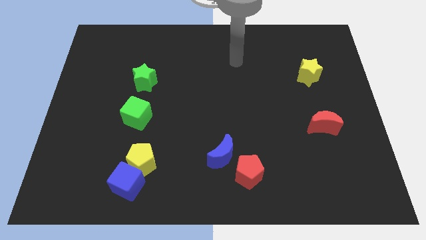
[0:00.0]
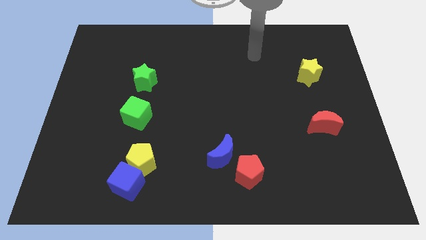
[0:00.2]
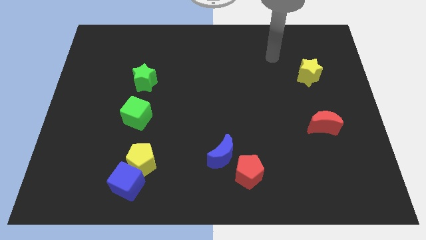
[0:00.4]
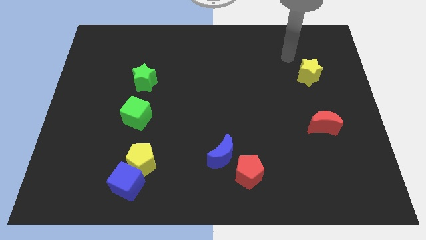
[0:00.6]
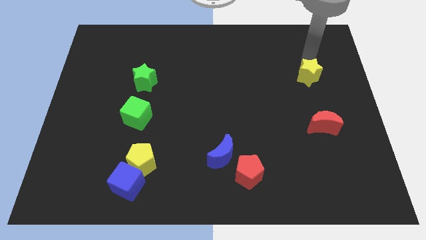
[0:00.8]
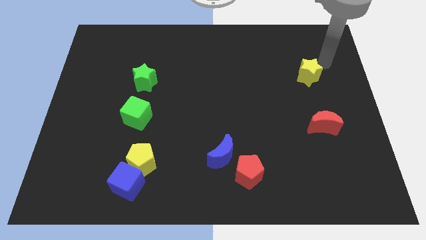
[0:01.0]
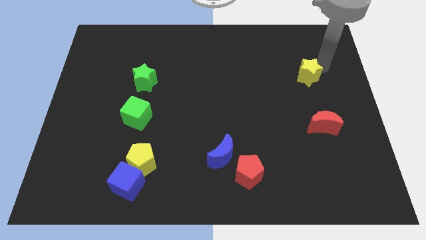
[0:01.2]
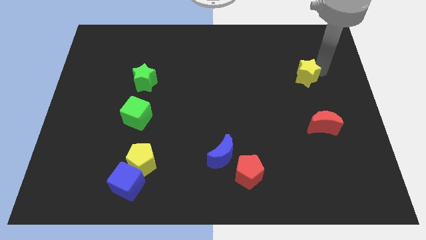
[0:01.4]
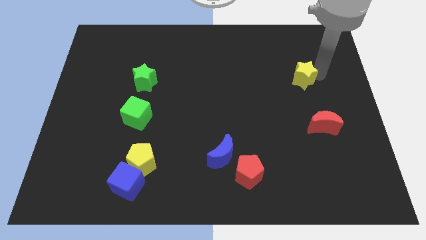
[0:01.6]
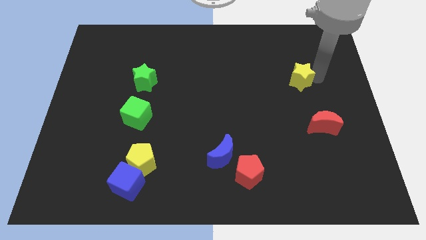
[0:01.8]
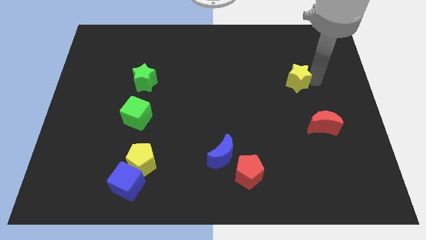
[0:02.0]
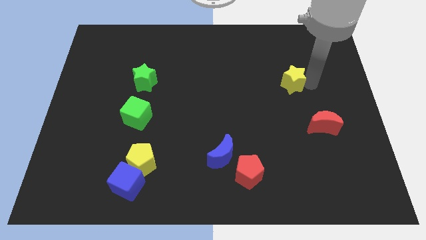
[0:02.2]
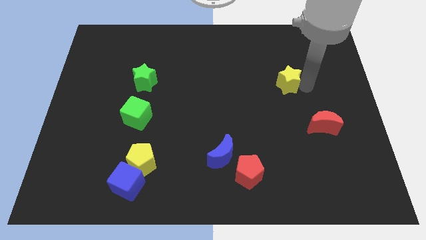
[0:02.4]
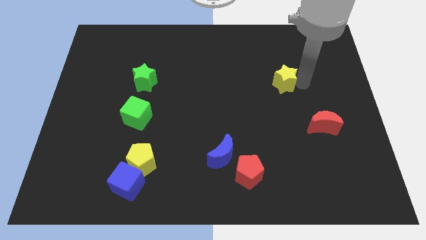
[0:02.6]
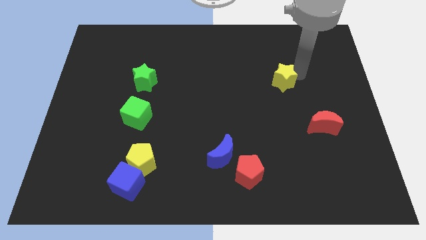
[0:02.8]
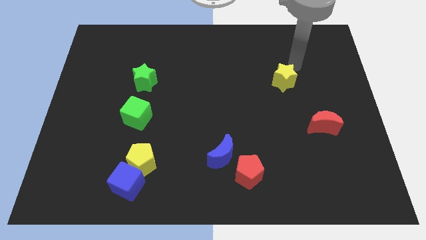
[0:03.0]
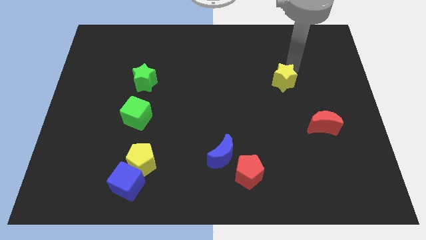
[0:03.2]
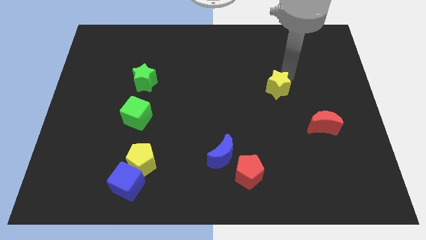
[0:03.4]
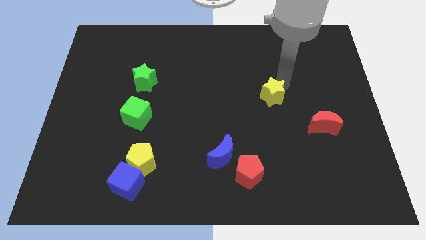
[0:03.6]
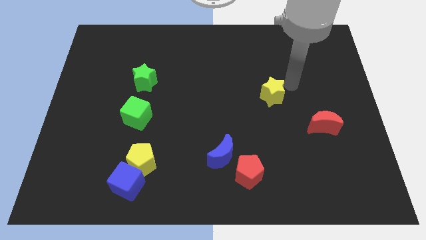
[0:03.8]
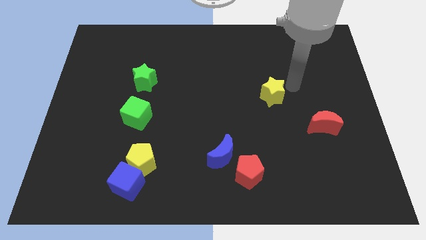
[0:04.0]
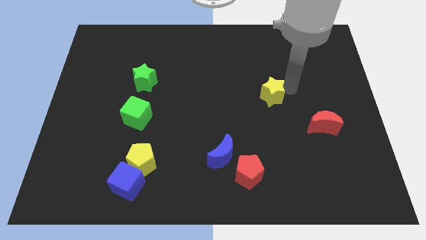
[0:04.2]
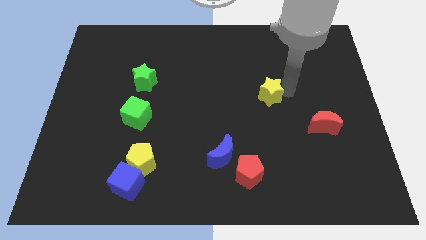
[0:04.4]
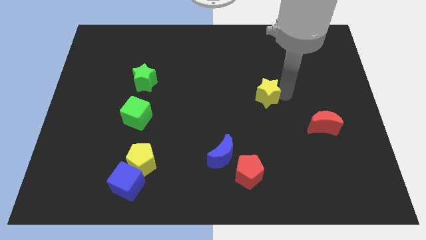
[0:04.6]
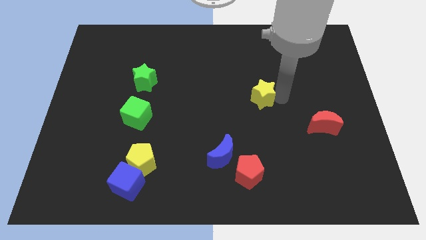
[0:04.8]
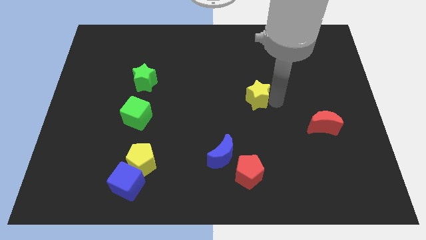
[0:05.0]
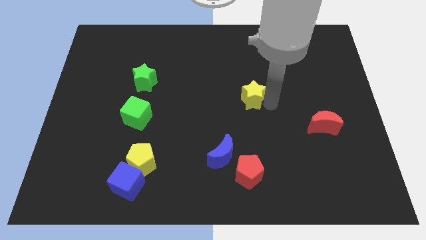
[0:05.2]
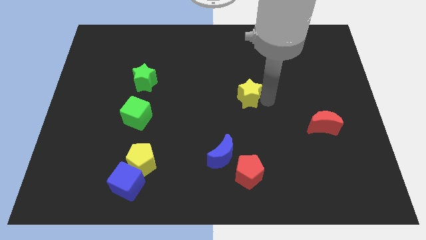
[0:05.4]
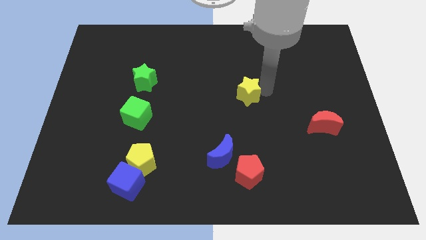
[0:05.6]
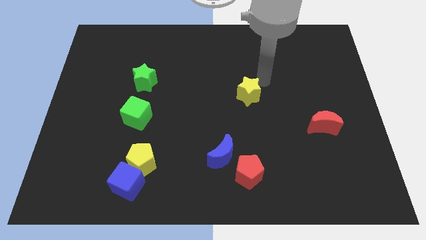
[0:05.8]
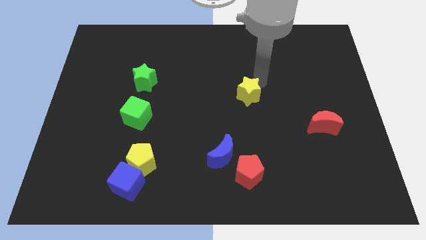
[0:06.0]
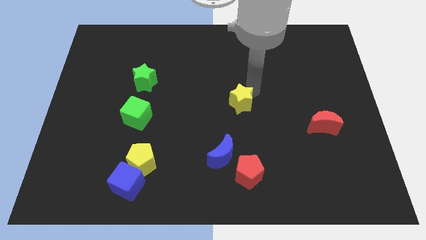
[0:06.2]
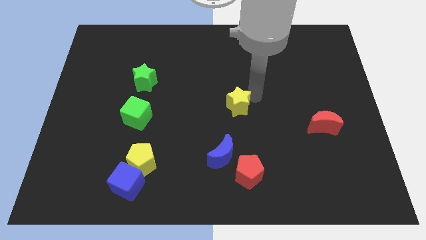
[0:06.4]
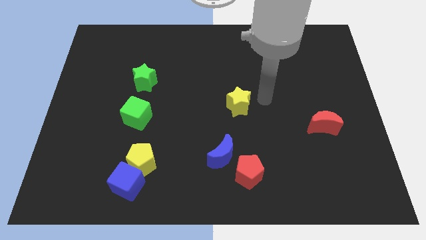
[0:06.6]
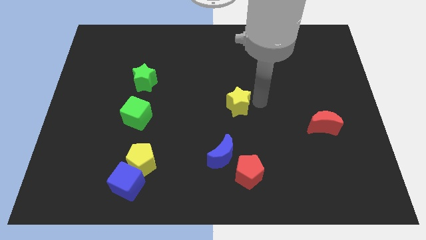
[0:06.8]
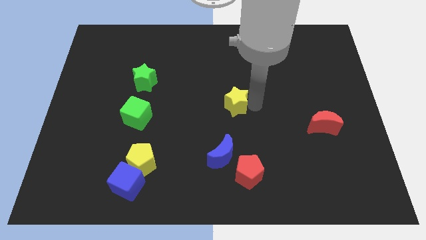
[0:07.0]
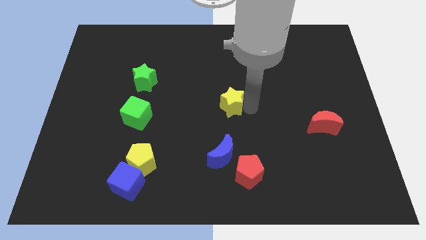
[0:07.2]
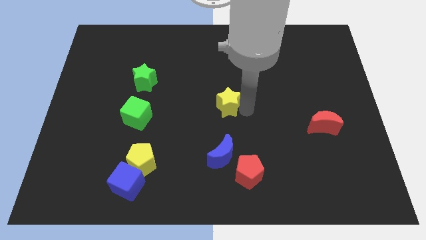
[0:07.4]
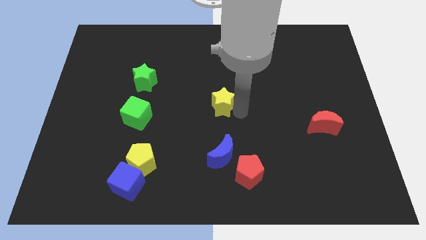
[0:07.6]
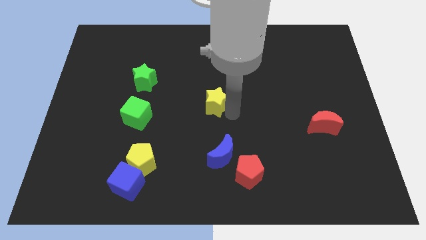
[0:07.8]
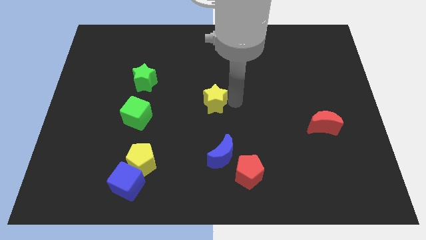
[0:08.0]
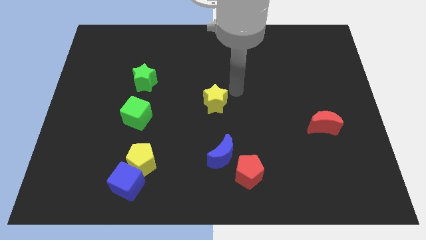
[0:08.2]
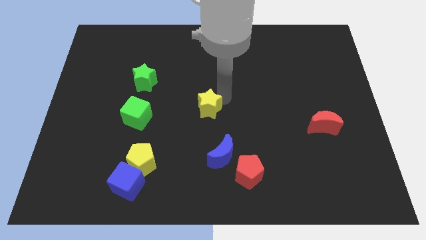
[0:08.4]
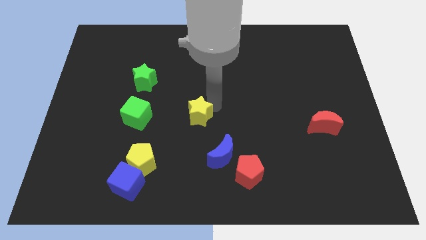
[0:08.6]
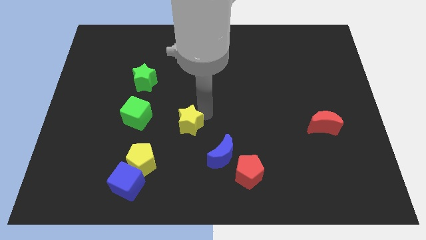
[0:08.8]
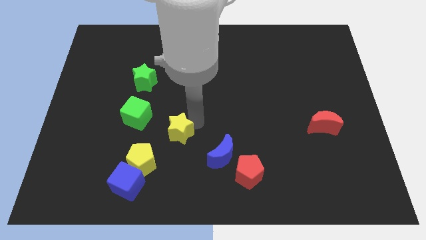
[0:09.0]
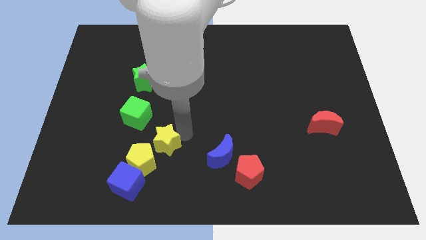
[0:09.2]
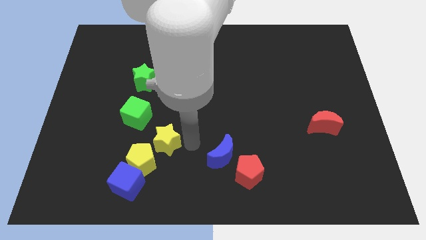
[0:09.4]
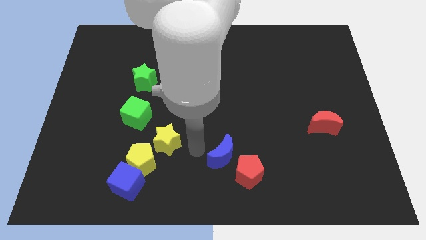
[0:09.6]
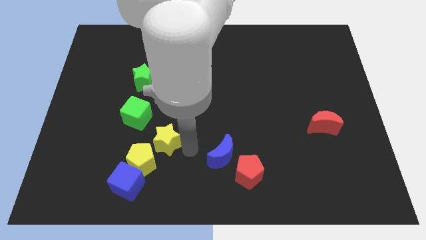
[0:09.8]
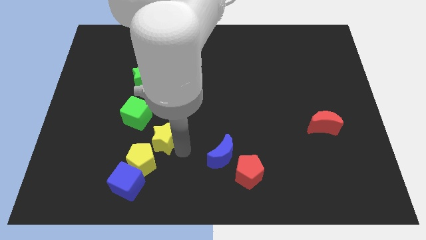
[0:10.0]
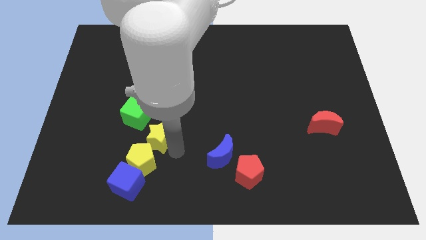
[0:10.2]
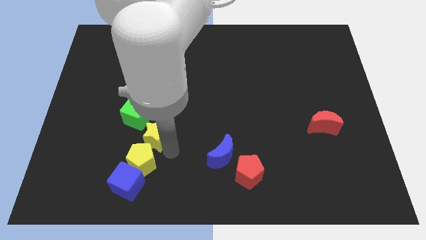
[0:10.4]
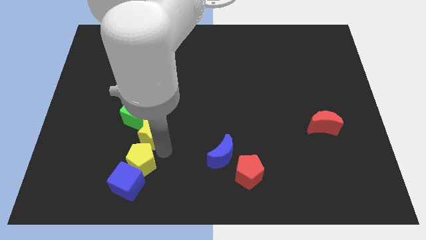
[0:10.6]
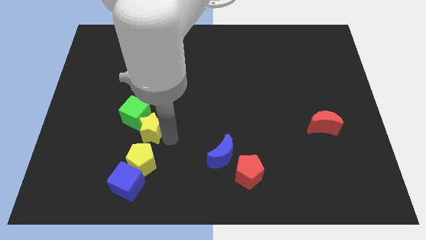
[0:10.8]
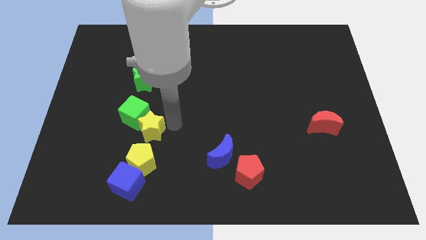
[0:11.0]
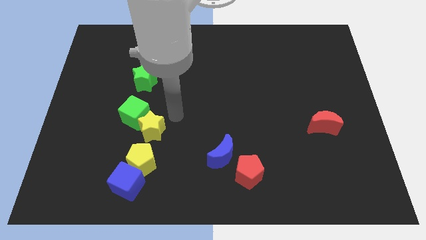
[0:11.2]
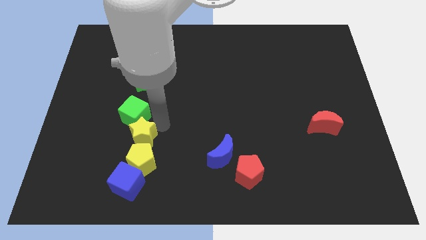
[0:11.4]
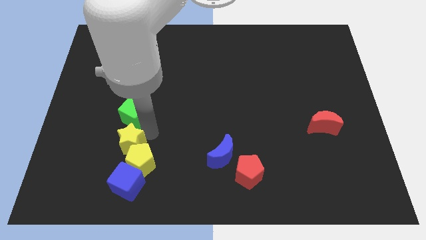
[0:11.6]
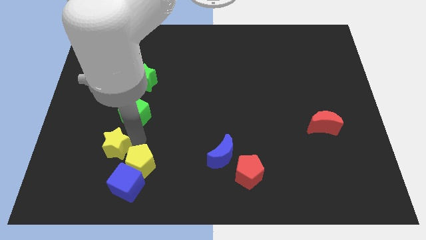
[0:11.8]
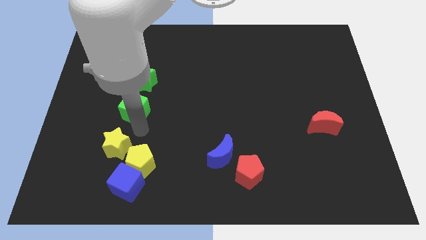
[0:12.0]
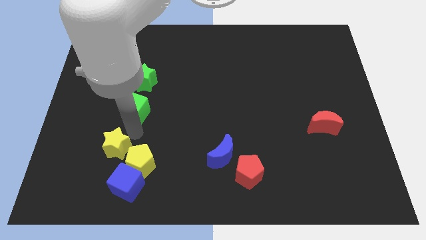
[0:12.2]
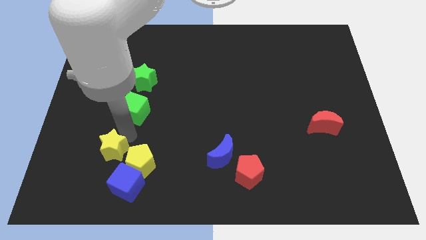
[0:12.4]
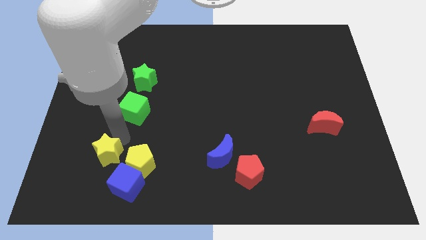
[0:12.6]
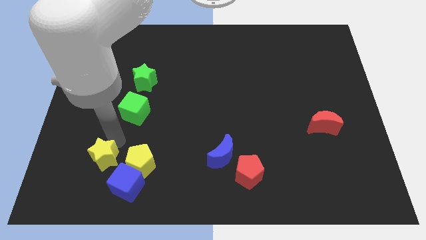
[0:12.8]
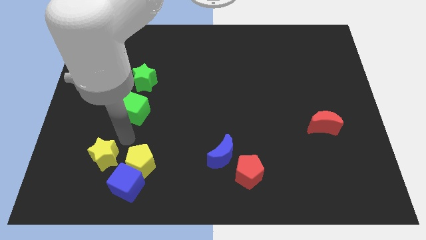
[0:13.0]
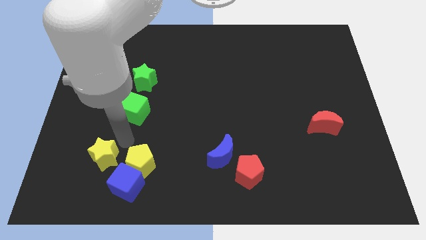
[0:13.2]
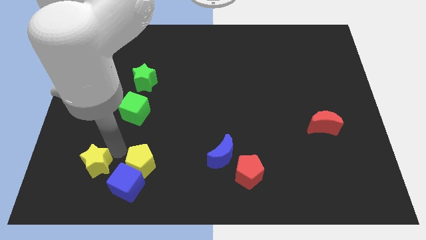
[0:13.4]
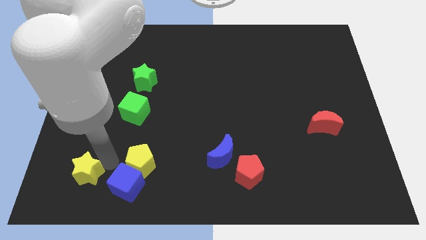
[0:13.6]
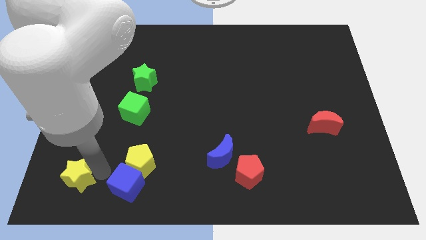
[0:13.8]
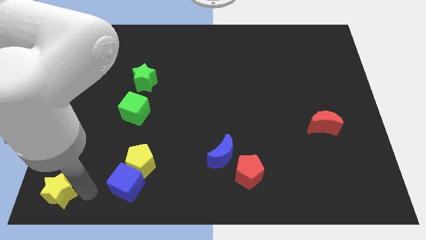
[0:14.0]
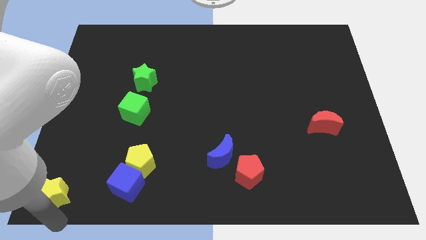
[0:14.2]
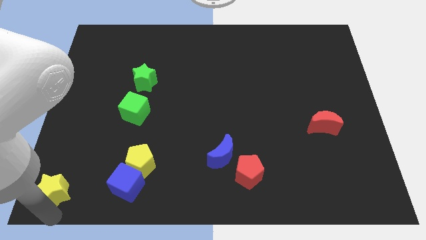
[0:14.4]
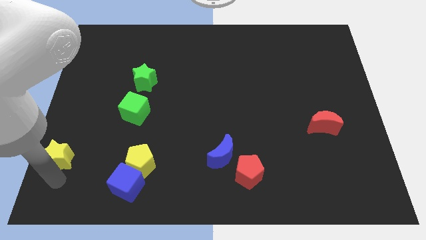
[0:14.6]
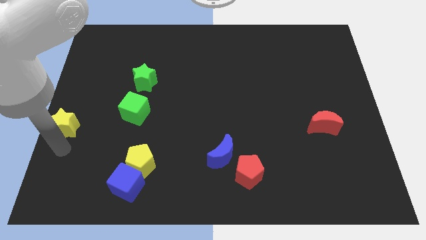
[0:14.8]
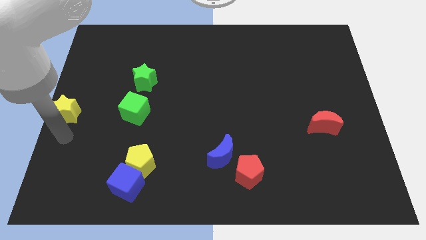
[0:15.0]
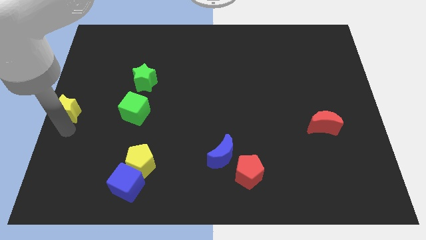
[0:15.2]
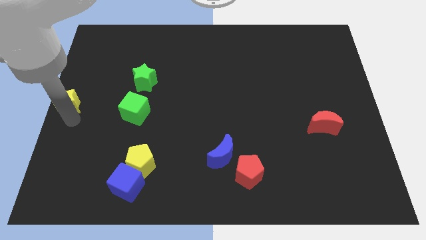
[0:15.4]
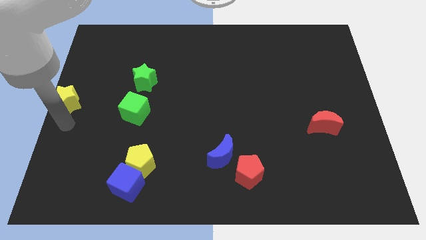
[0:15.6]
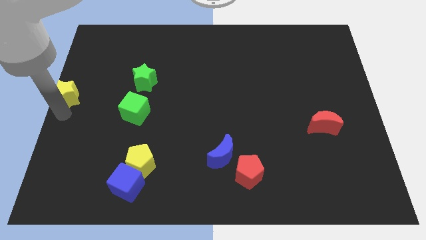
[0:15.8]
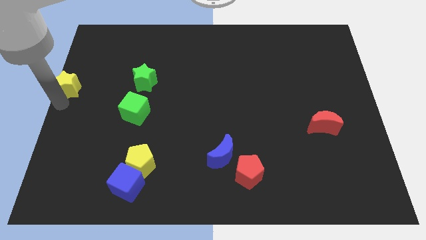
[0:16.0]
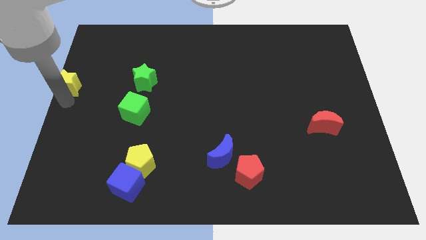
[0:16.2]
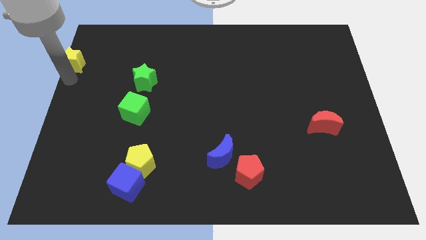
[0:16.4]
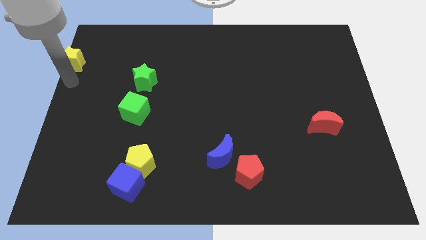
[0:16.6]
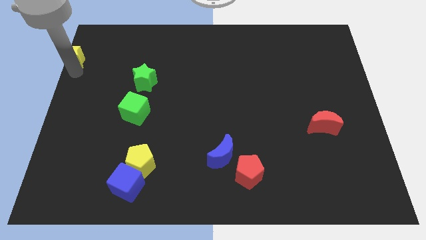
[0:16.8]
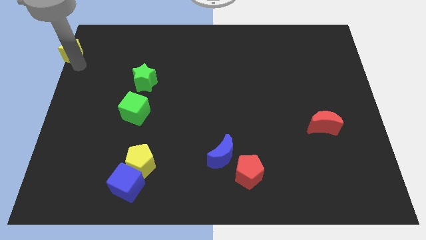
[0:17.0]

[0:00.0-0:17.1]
put the yellow star to the top left
